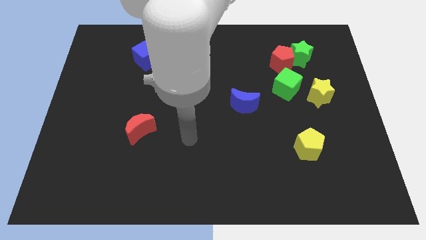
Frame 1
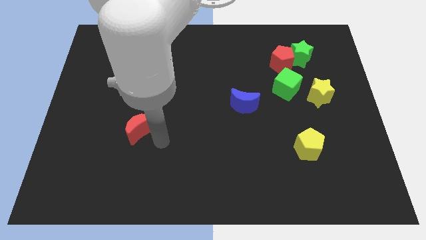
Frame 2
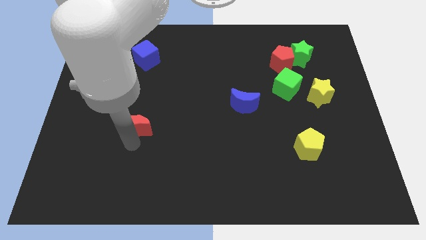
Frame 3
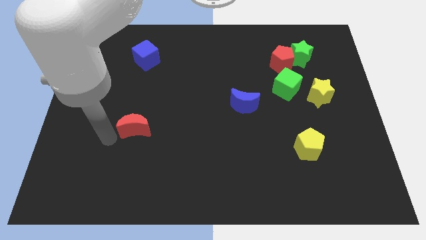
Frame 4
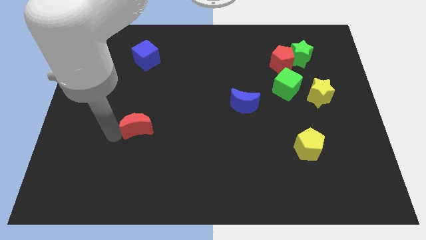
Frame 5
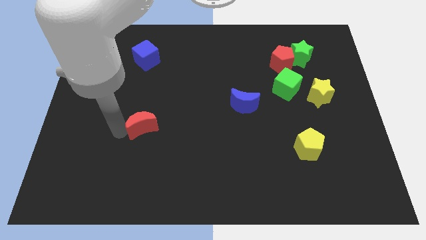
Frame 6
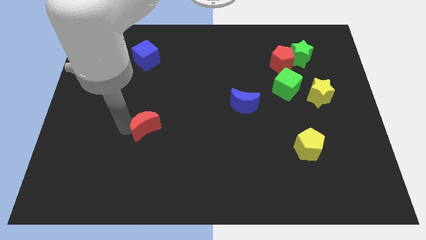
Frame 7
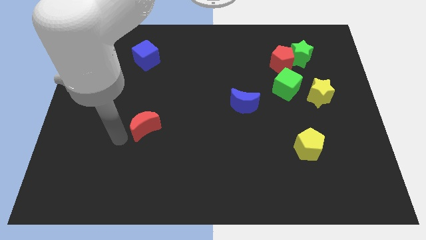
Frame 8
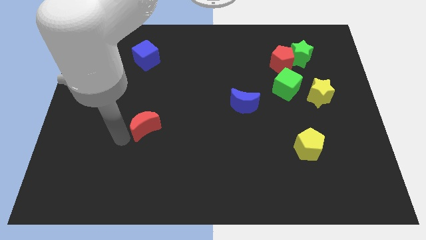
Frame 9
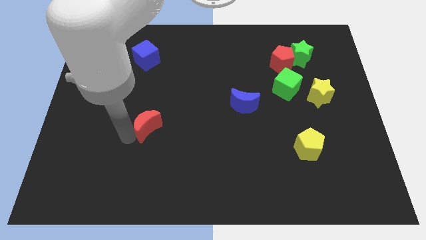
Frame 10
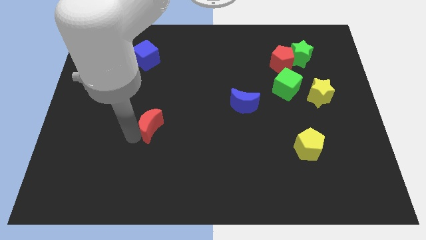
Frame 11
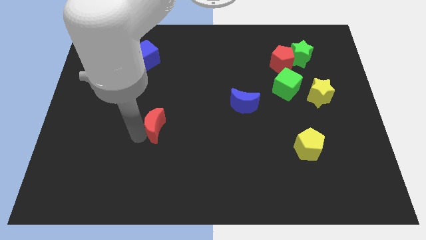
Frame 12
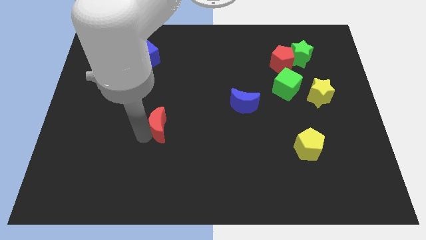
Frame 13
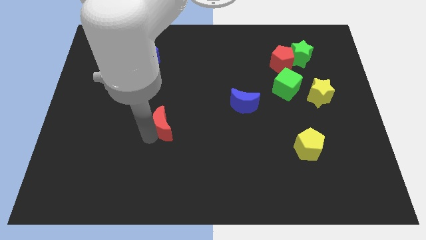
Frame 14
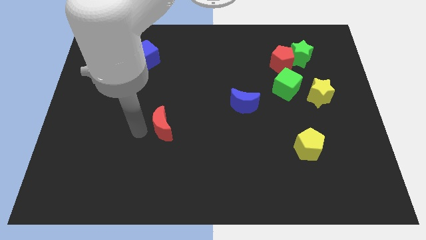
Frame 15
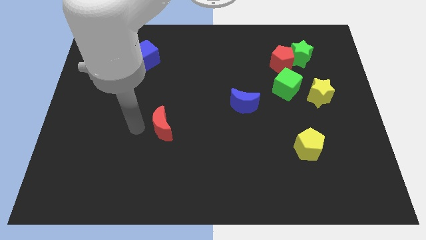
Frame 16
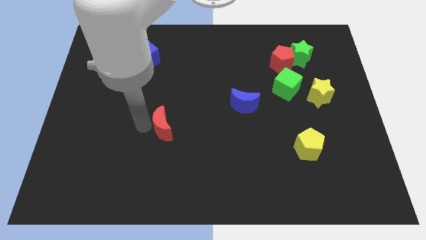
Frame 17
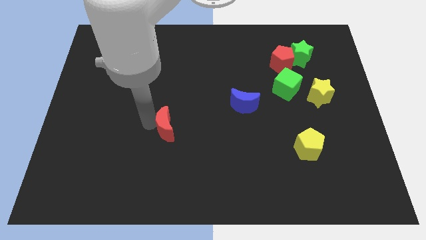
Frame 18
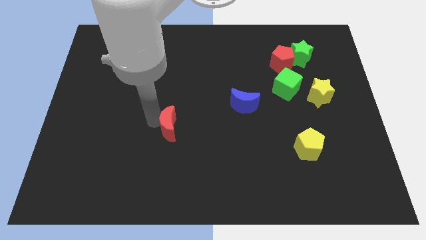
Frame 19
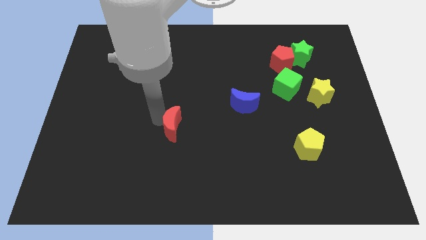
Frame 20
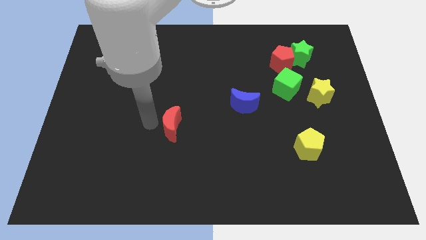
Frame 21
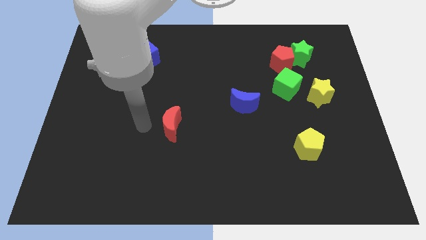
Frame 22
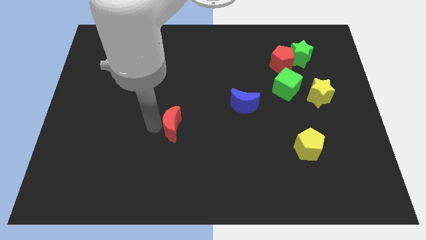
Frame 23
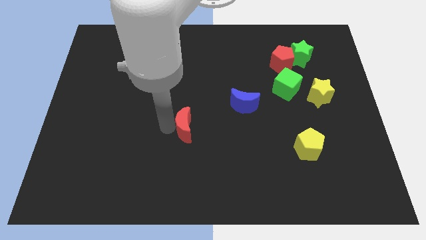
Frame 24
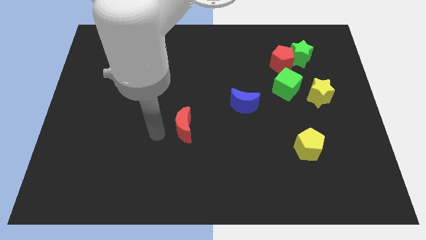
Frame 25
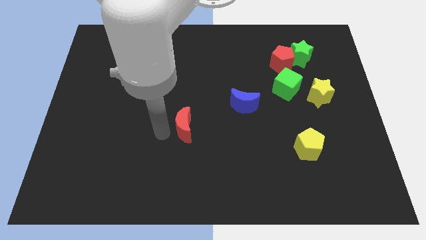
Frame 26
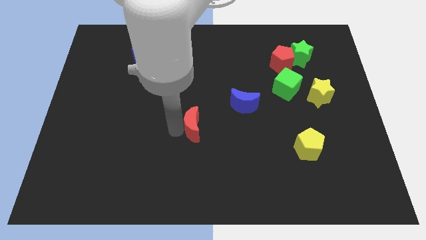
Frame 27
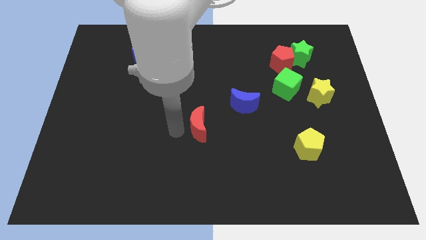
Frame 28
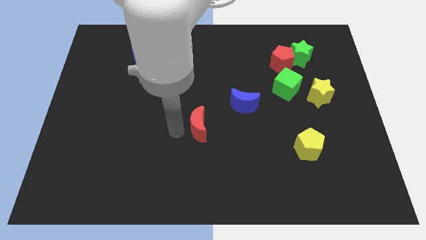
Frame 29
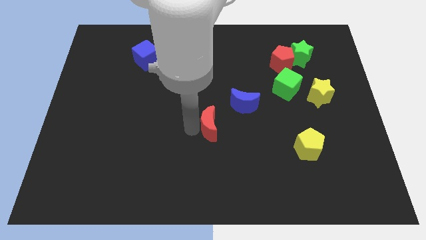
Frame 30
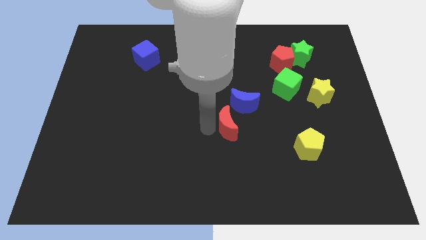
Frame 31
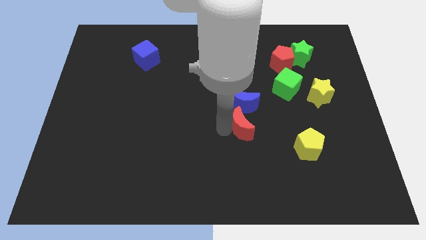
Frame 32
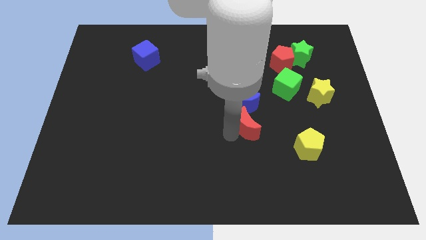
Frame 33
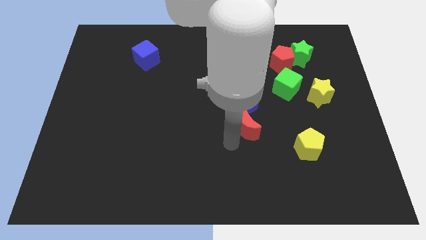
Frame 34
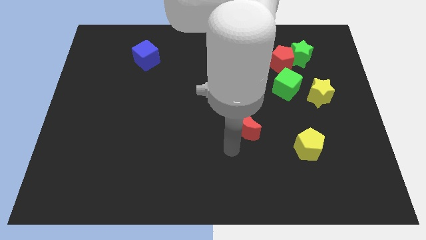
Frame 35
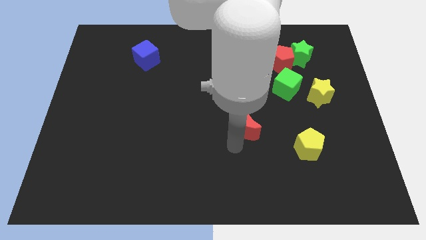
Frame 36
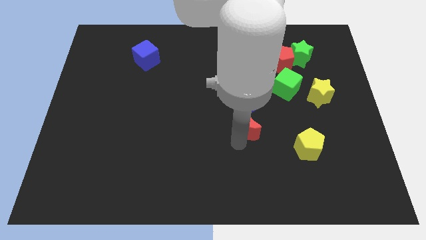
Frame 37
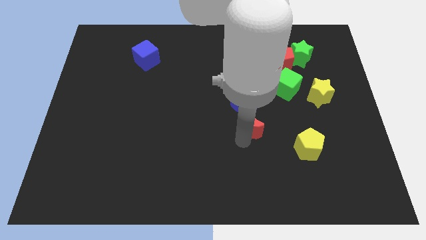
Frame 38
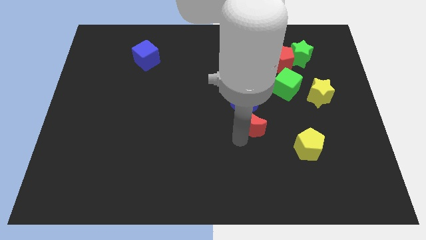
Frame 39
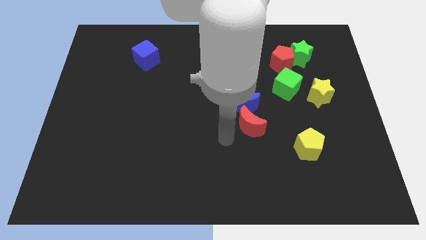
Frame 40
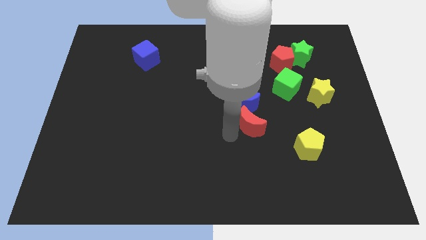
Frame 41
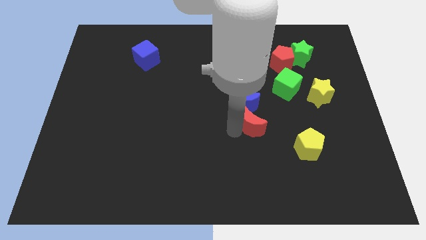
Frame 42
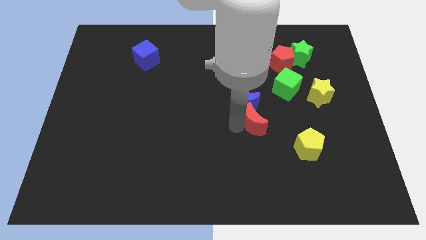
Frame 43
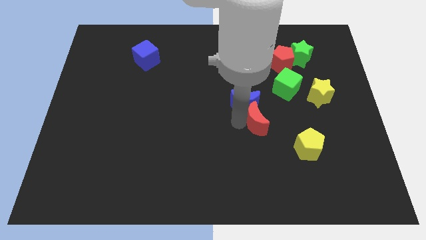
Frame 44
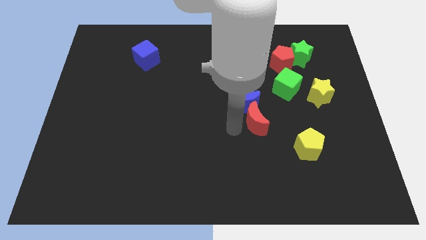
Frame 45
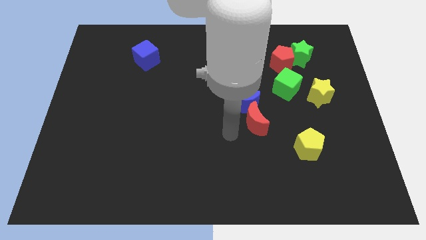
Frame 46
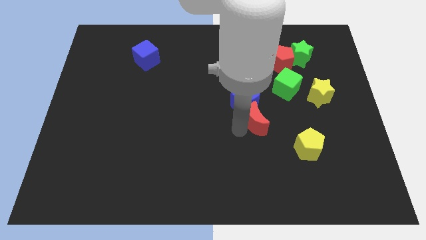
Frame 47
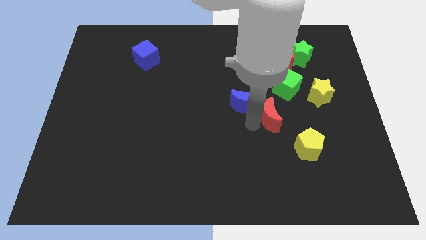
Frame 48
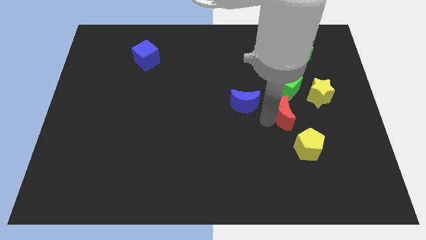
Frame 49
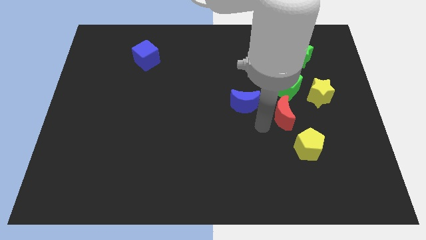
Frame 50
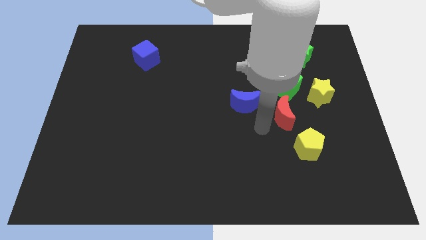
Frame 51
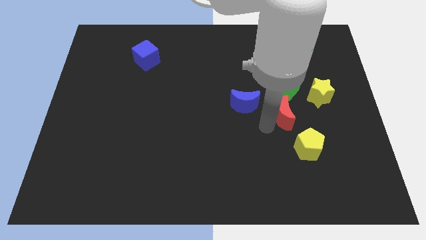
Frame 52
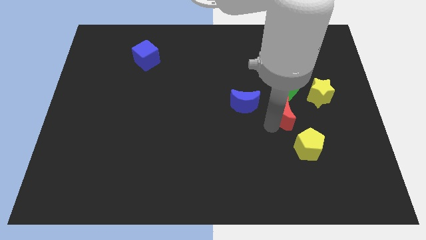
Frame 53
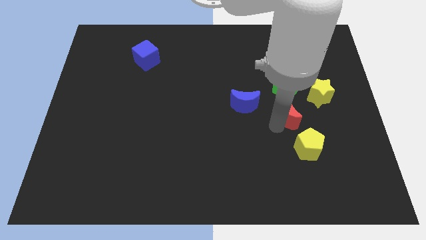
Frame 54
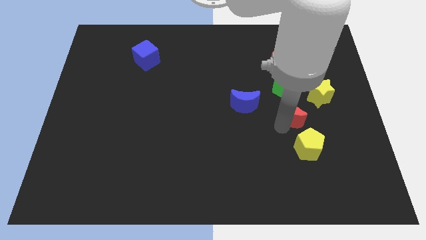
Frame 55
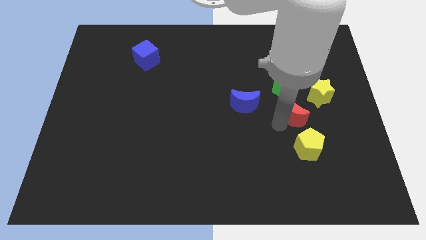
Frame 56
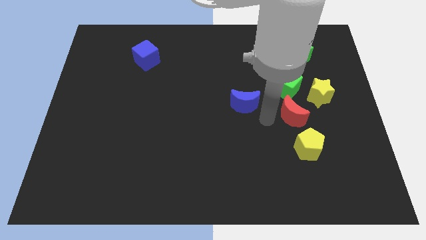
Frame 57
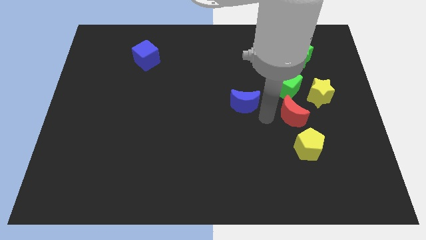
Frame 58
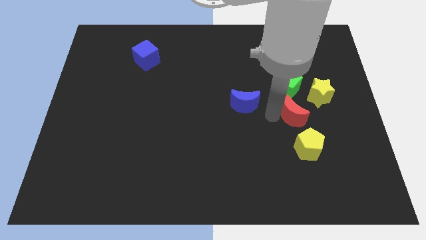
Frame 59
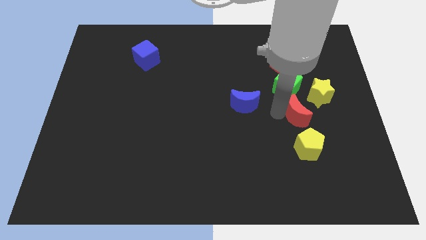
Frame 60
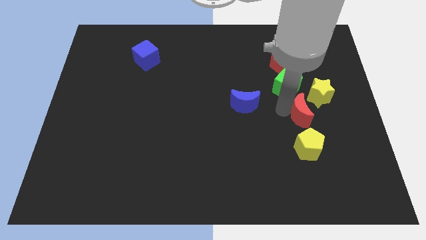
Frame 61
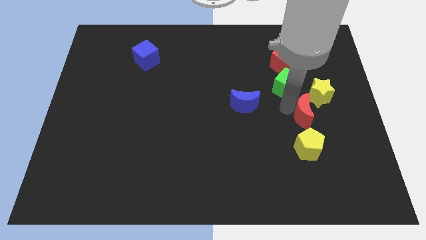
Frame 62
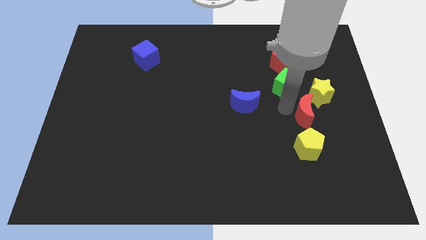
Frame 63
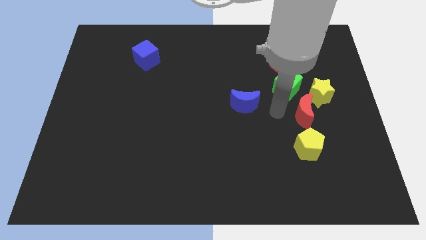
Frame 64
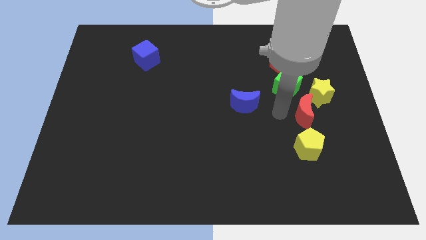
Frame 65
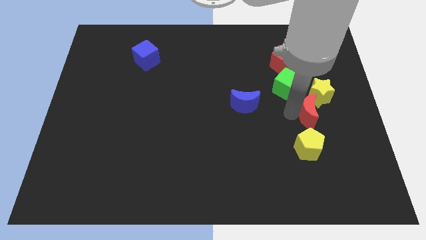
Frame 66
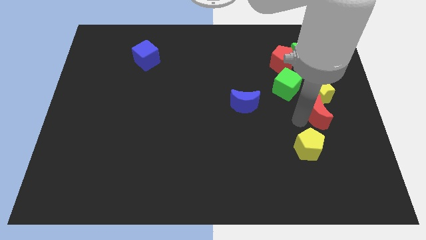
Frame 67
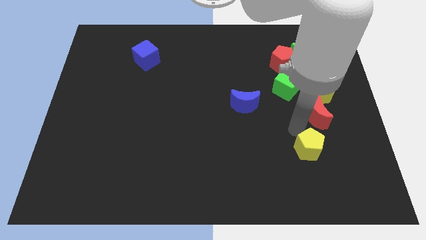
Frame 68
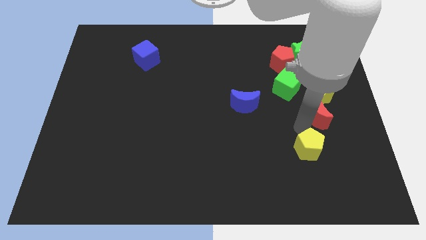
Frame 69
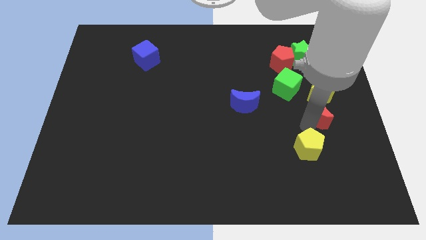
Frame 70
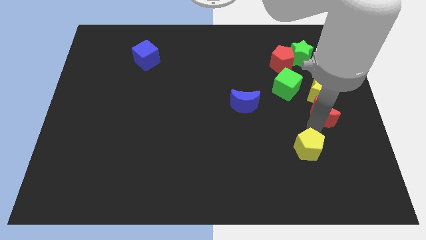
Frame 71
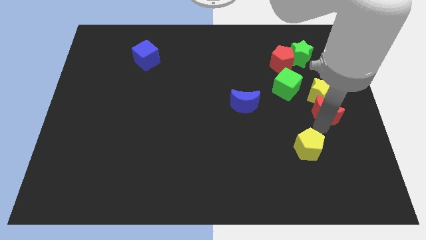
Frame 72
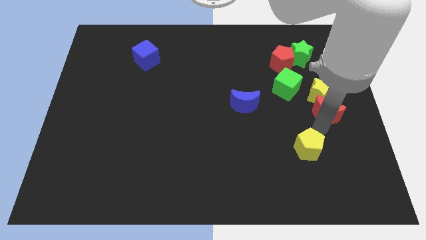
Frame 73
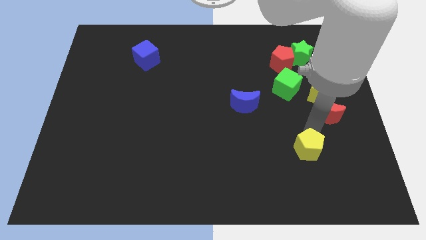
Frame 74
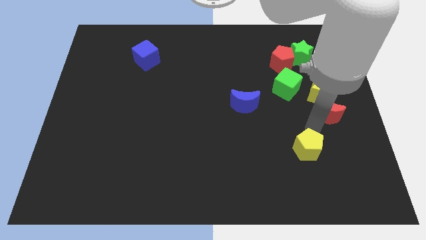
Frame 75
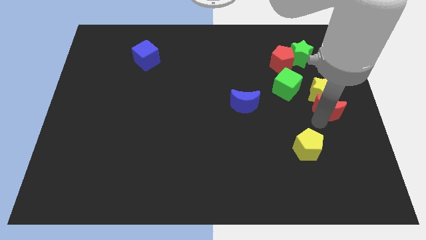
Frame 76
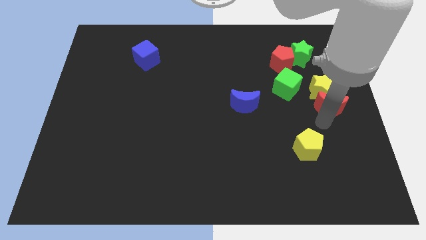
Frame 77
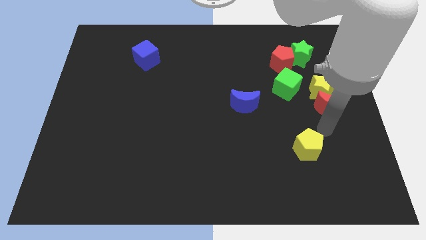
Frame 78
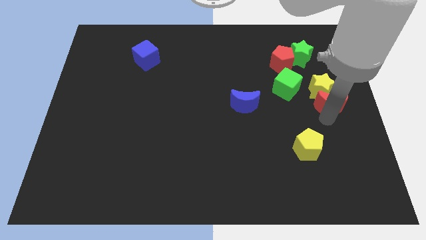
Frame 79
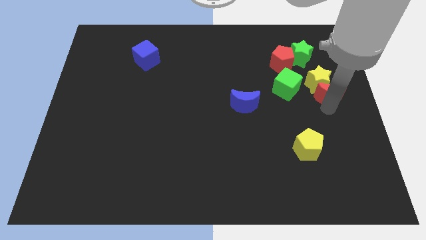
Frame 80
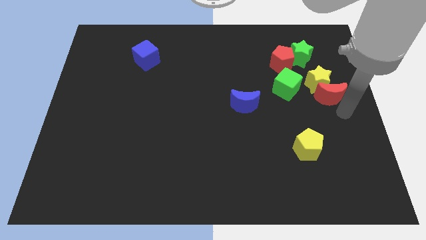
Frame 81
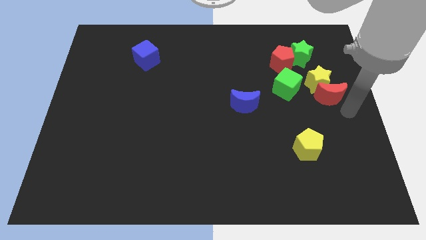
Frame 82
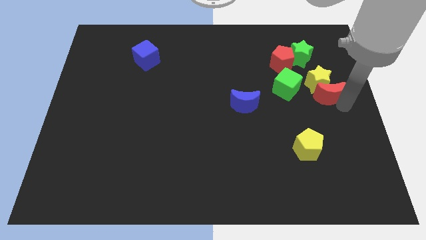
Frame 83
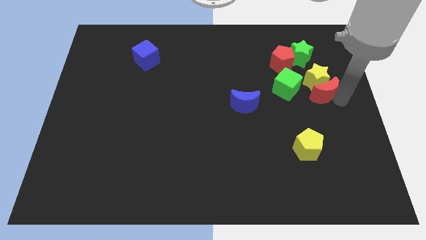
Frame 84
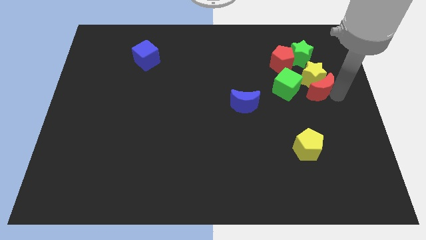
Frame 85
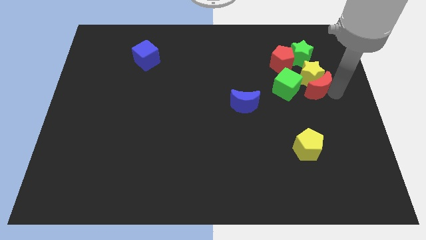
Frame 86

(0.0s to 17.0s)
slide the red moon to the bottom right of the red pentagon
